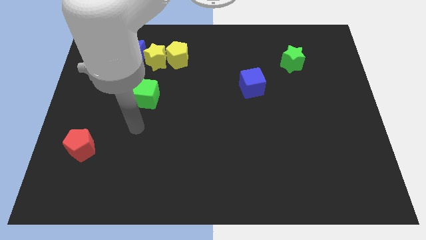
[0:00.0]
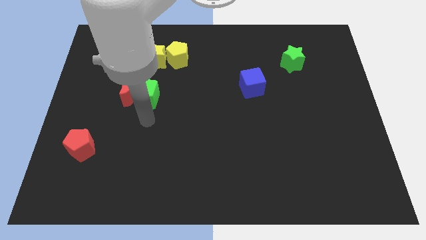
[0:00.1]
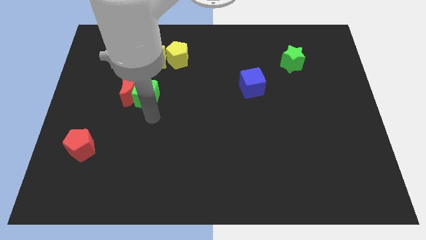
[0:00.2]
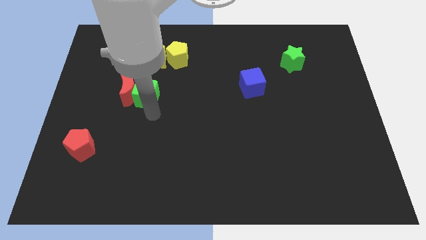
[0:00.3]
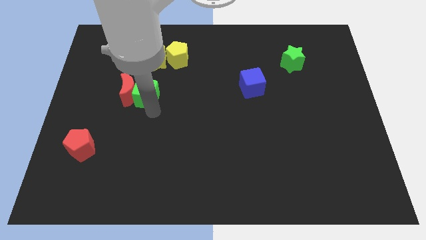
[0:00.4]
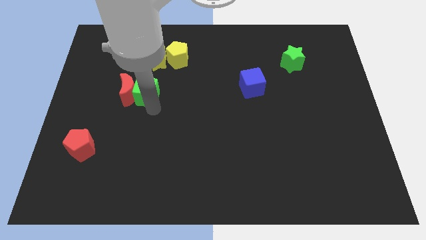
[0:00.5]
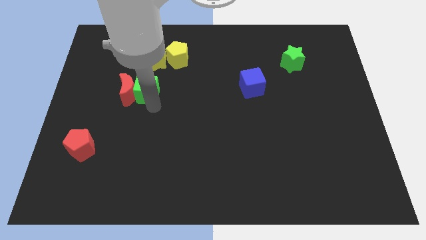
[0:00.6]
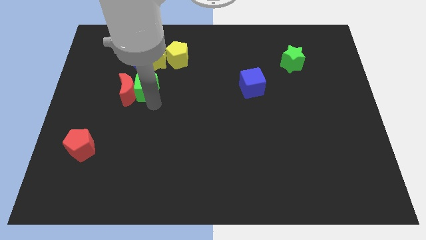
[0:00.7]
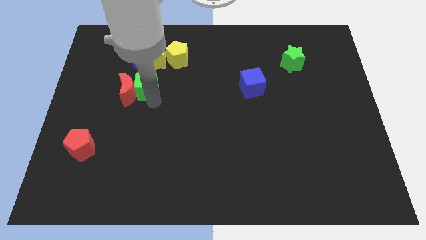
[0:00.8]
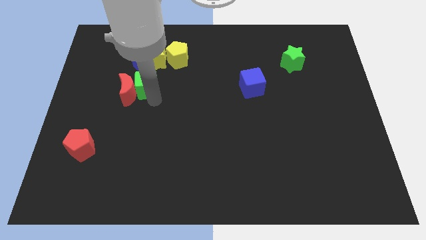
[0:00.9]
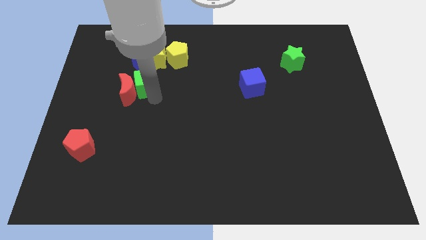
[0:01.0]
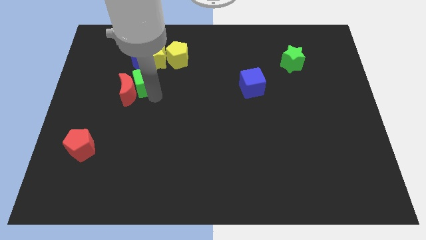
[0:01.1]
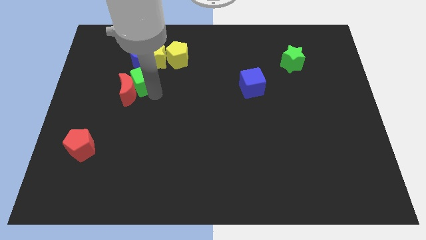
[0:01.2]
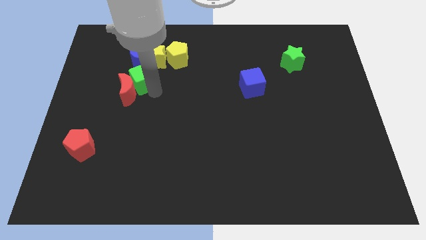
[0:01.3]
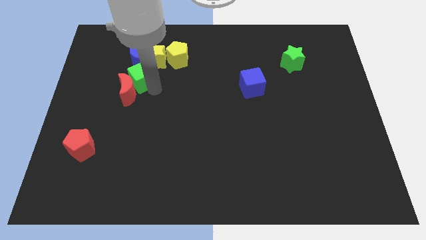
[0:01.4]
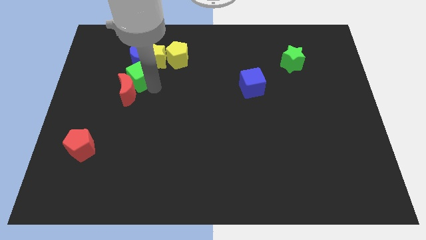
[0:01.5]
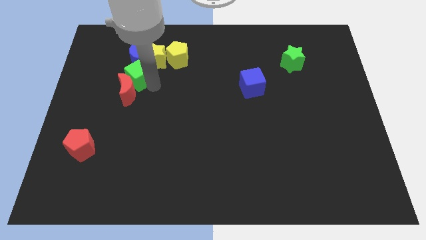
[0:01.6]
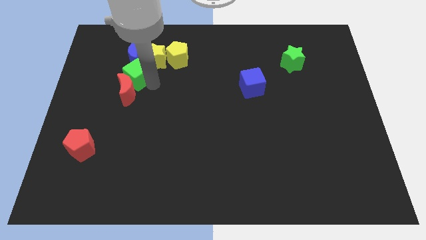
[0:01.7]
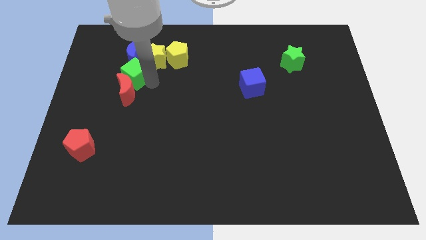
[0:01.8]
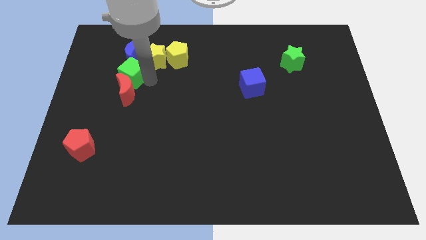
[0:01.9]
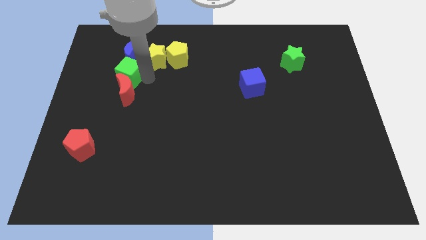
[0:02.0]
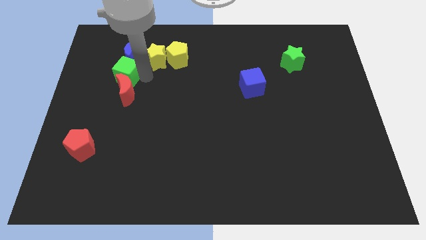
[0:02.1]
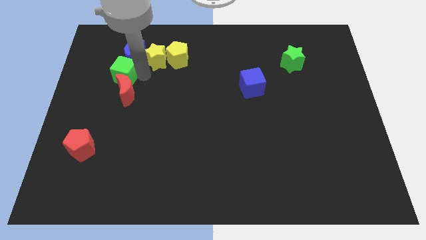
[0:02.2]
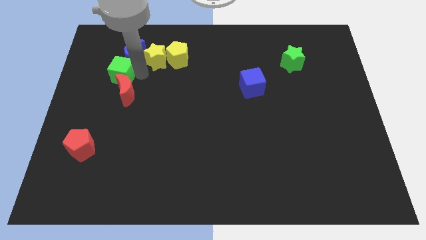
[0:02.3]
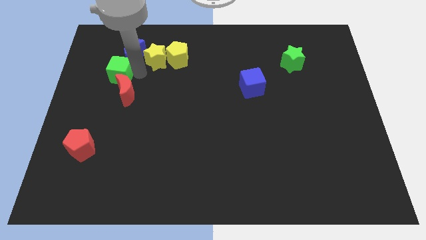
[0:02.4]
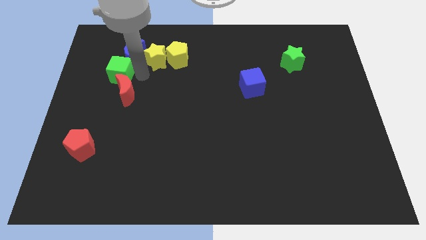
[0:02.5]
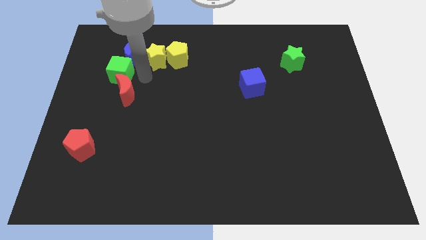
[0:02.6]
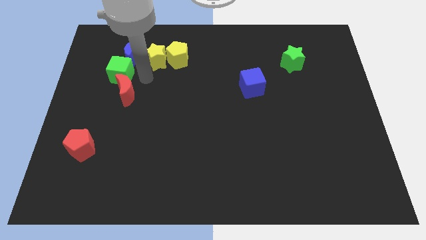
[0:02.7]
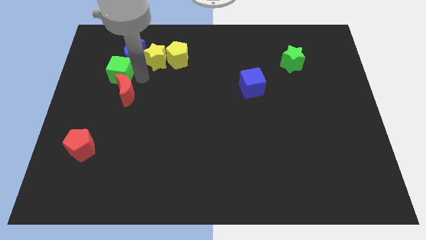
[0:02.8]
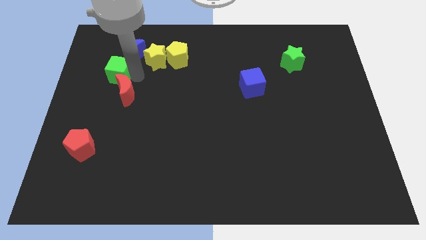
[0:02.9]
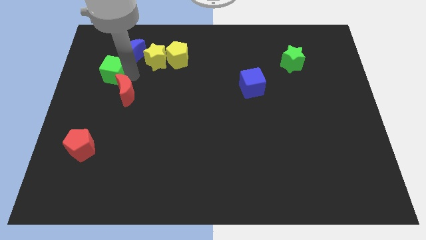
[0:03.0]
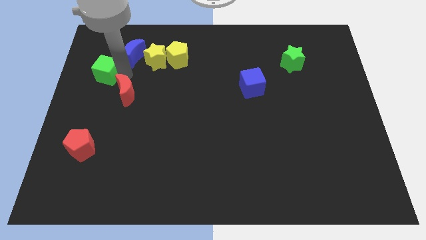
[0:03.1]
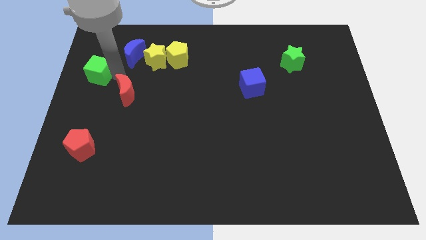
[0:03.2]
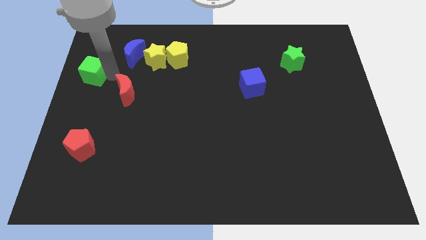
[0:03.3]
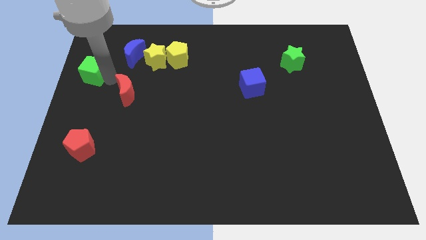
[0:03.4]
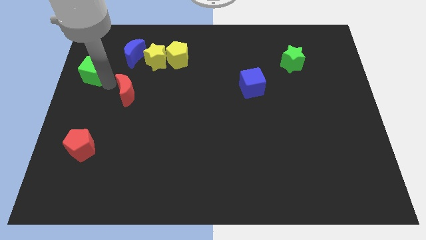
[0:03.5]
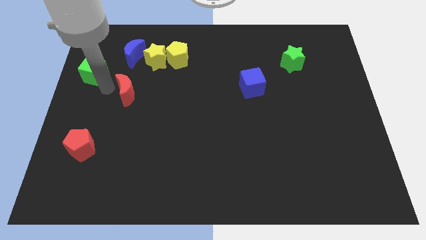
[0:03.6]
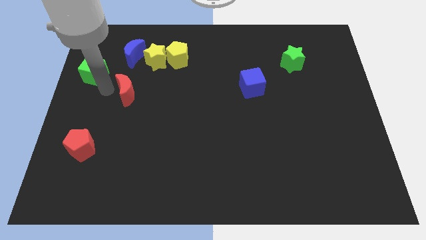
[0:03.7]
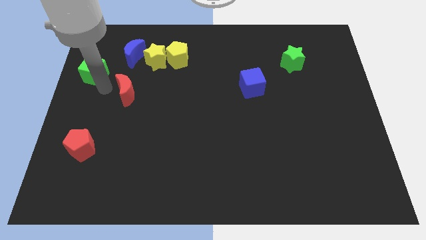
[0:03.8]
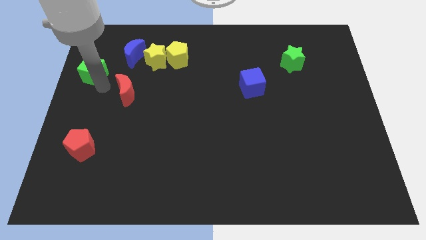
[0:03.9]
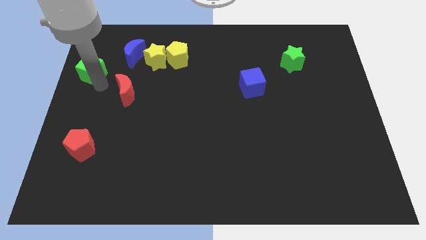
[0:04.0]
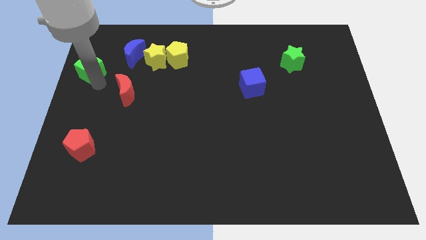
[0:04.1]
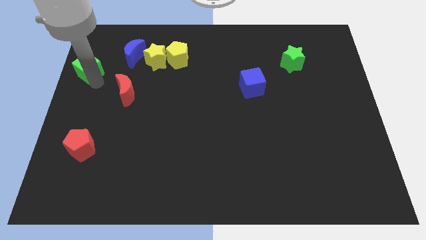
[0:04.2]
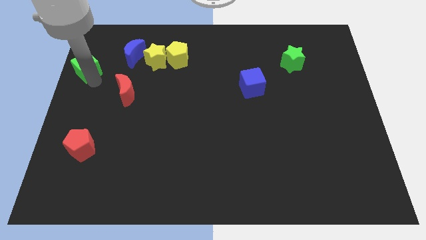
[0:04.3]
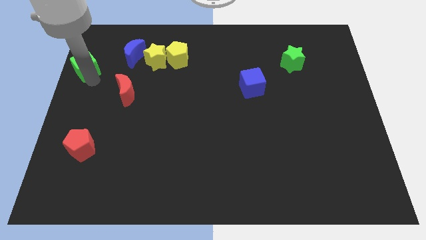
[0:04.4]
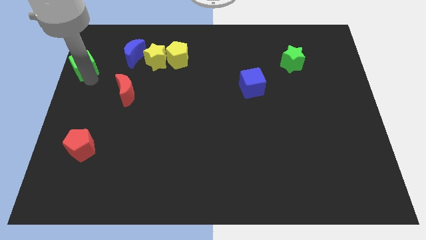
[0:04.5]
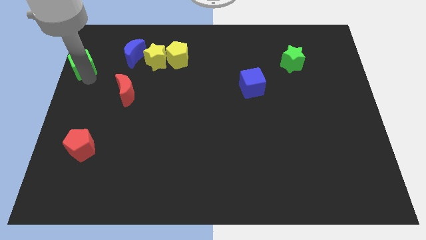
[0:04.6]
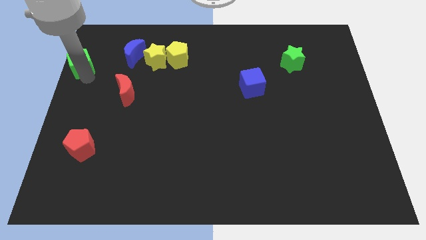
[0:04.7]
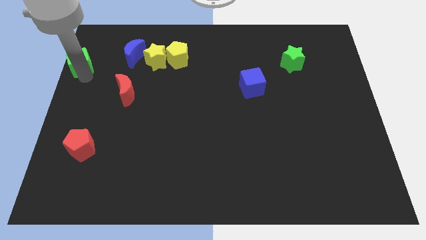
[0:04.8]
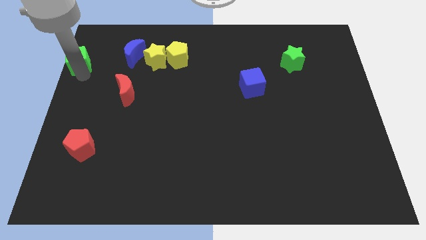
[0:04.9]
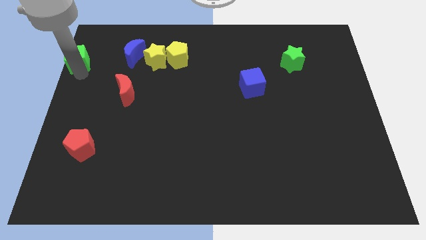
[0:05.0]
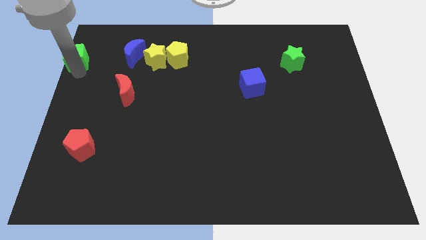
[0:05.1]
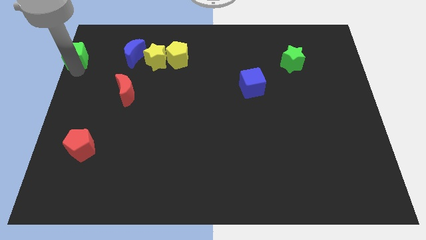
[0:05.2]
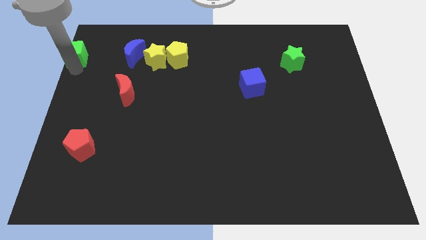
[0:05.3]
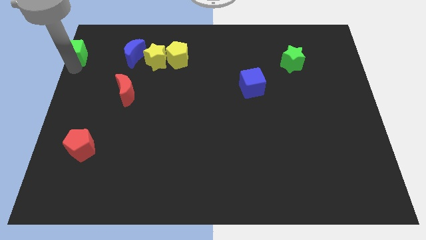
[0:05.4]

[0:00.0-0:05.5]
push the green cube to the top left of the board

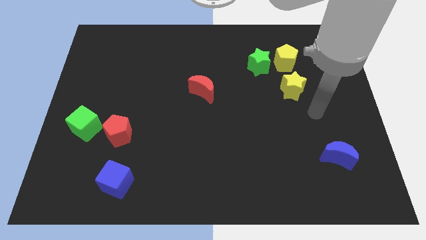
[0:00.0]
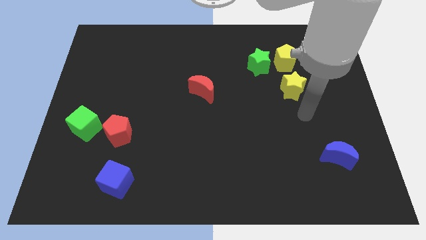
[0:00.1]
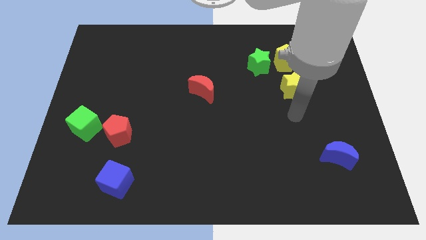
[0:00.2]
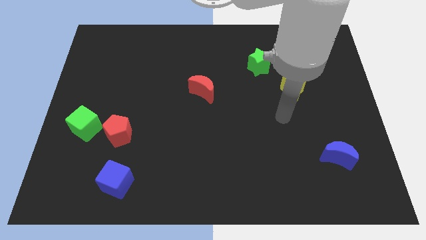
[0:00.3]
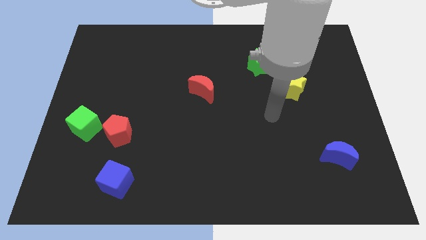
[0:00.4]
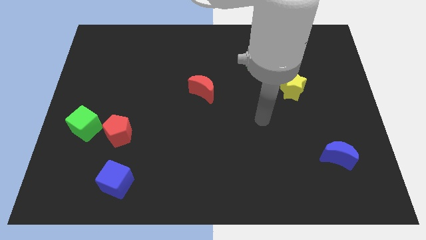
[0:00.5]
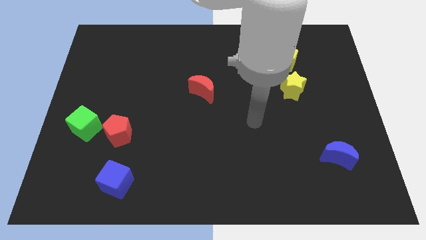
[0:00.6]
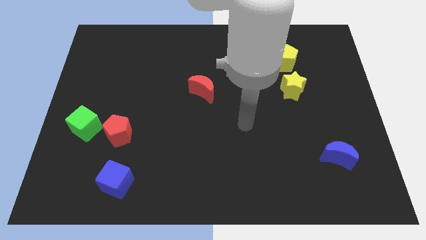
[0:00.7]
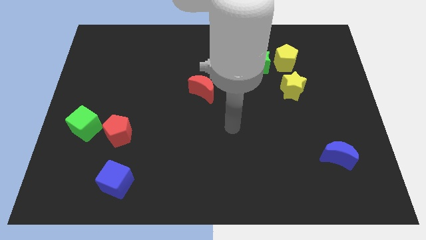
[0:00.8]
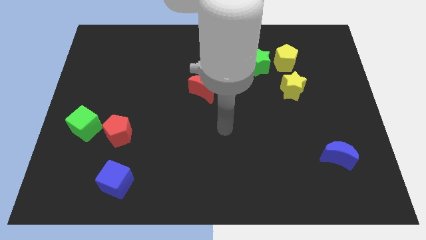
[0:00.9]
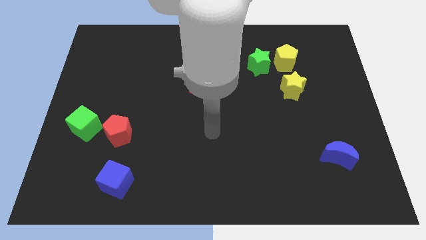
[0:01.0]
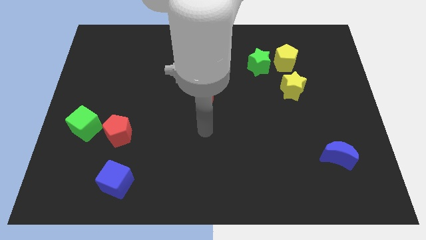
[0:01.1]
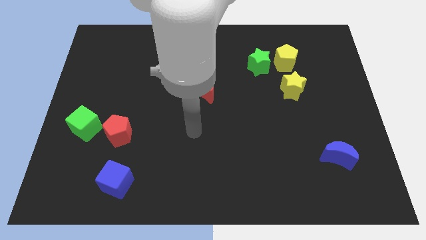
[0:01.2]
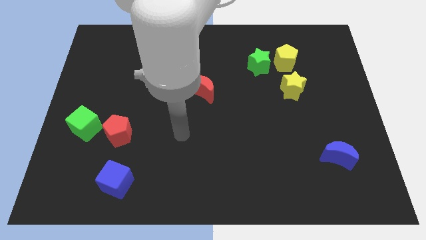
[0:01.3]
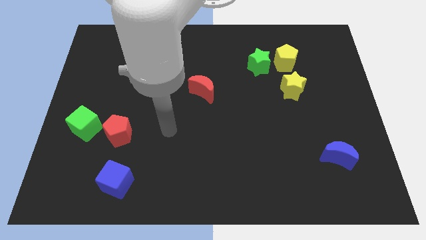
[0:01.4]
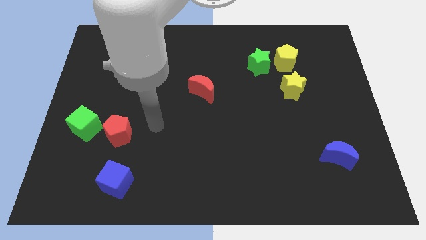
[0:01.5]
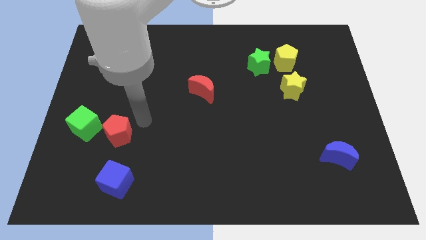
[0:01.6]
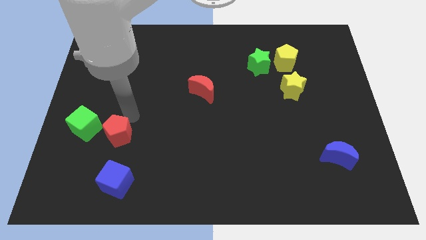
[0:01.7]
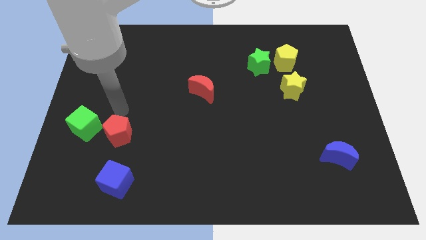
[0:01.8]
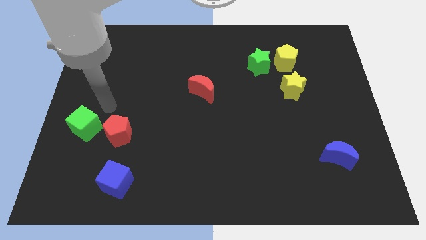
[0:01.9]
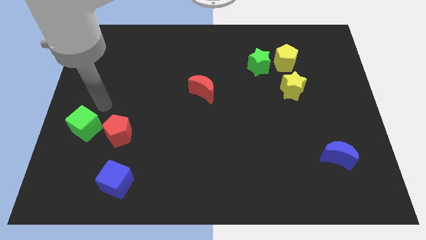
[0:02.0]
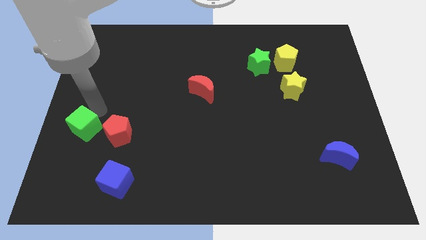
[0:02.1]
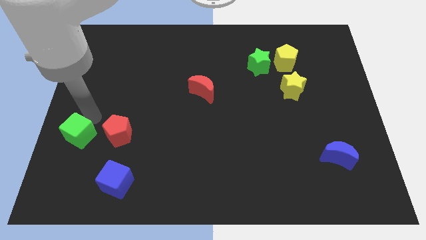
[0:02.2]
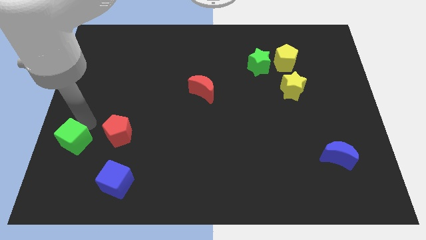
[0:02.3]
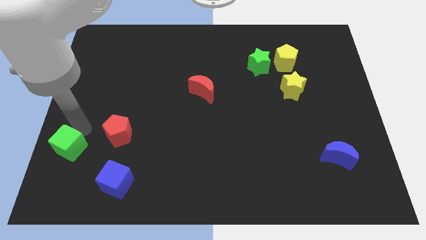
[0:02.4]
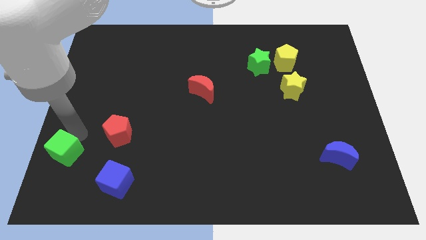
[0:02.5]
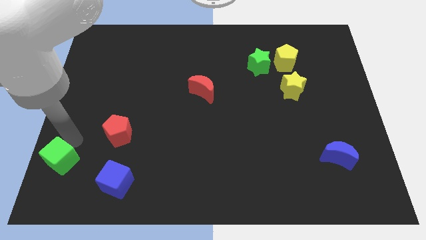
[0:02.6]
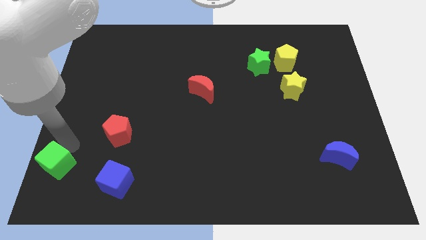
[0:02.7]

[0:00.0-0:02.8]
push the green cube to the bottom left corner
